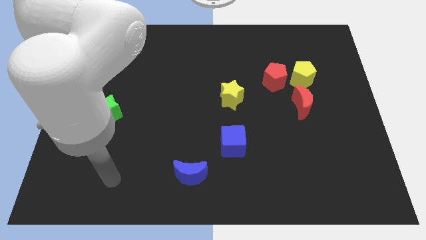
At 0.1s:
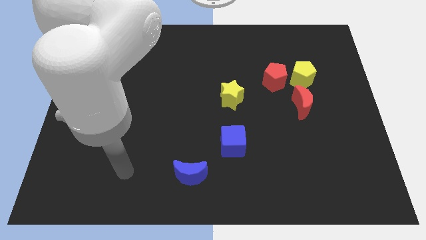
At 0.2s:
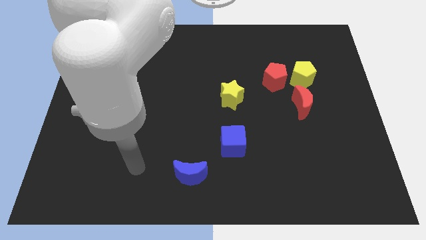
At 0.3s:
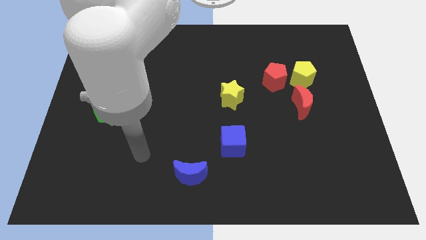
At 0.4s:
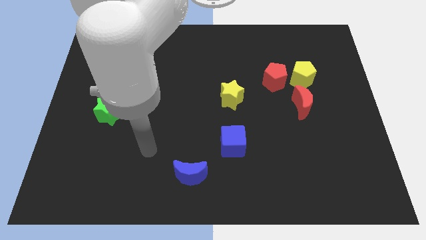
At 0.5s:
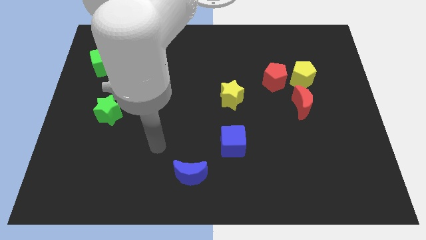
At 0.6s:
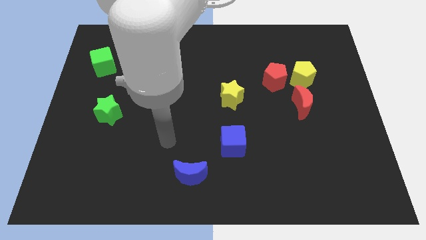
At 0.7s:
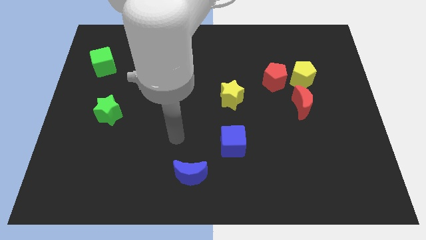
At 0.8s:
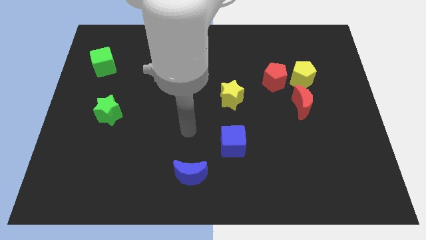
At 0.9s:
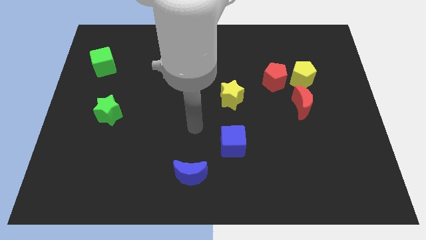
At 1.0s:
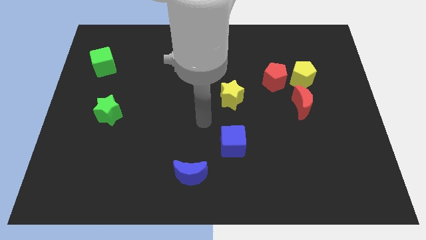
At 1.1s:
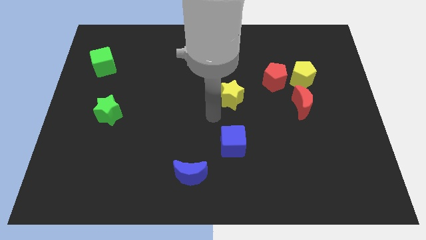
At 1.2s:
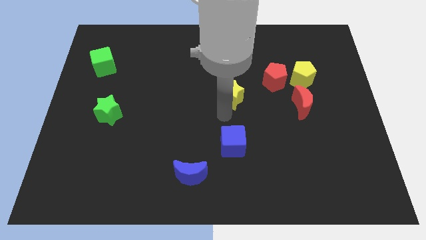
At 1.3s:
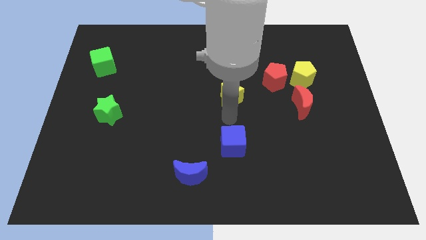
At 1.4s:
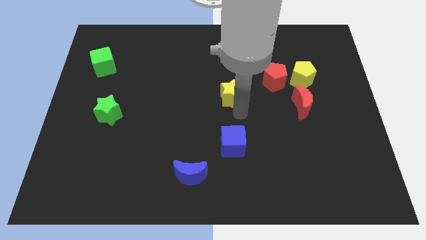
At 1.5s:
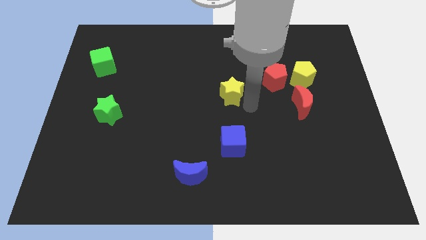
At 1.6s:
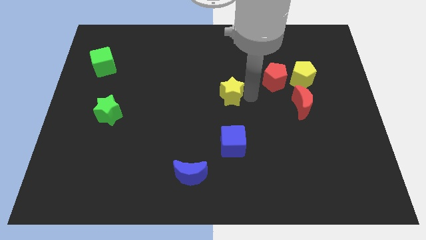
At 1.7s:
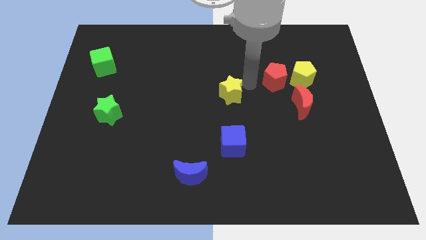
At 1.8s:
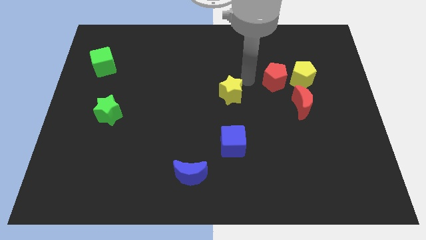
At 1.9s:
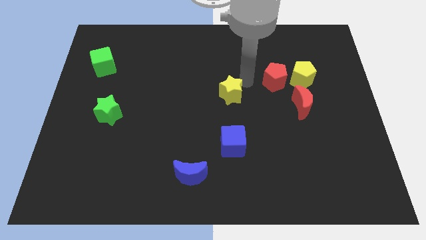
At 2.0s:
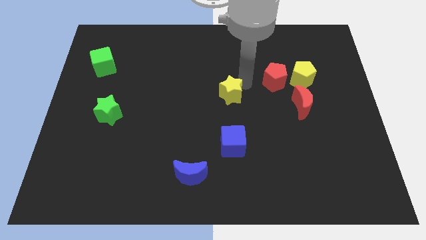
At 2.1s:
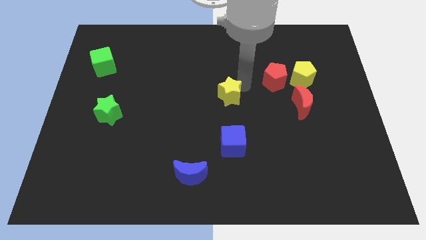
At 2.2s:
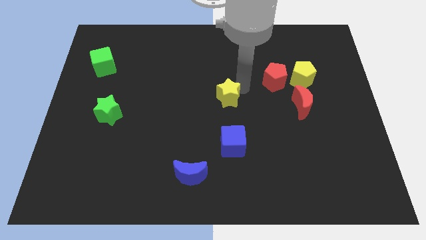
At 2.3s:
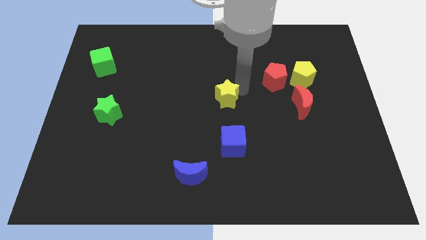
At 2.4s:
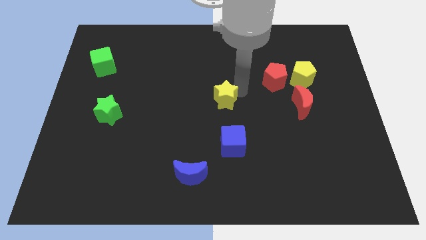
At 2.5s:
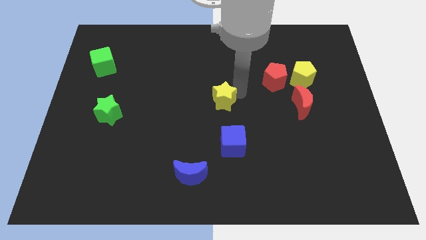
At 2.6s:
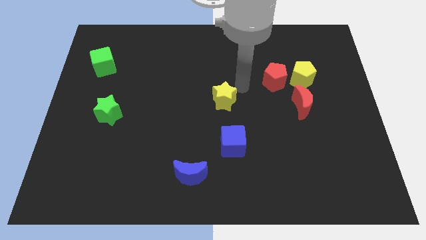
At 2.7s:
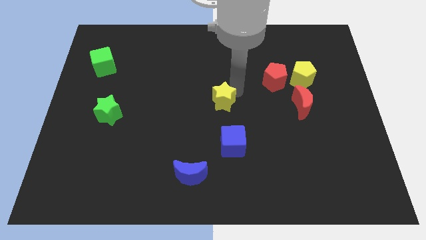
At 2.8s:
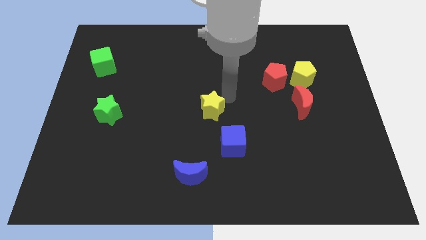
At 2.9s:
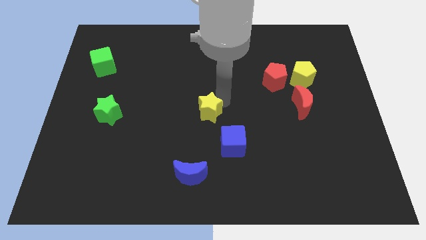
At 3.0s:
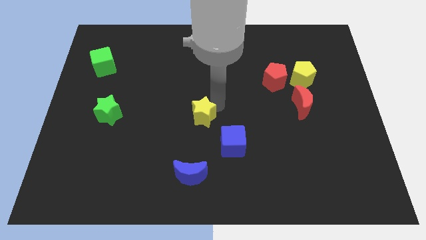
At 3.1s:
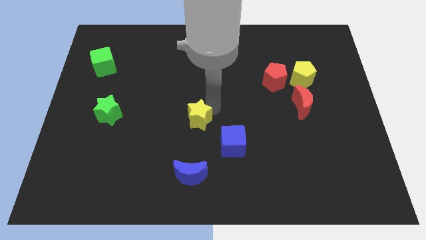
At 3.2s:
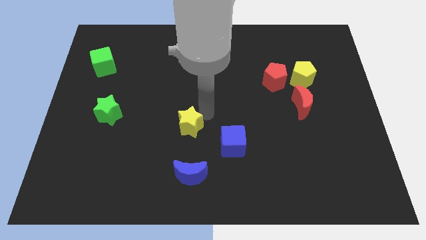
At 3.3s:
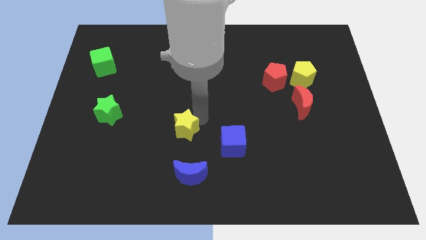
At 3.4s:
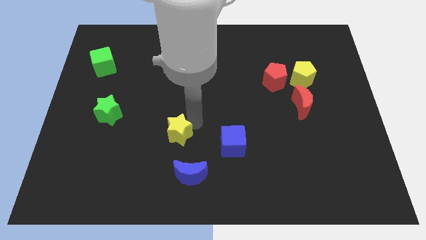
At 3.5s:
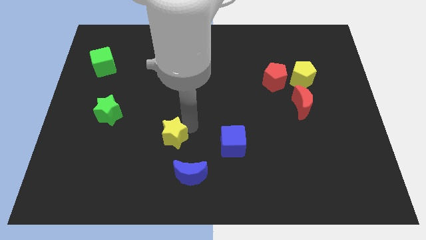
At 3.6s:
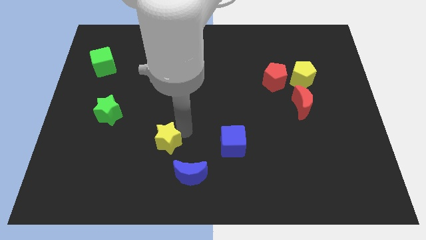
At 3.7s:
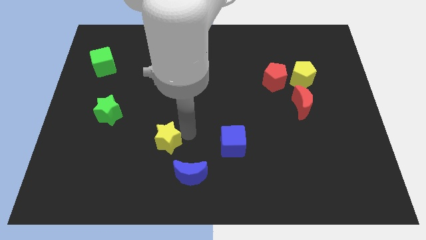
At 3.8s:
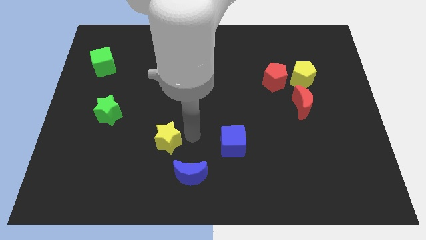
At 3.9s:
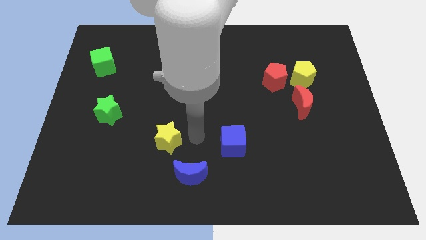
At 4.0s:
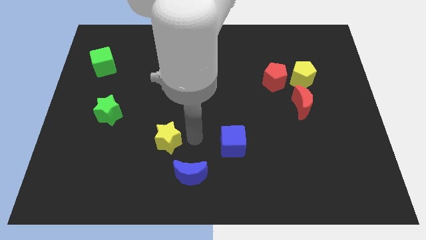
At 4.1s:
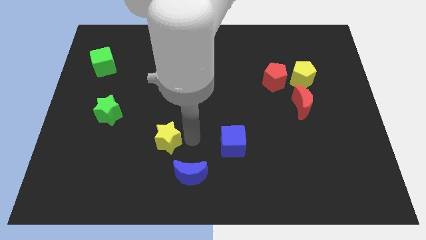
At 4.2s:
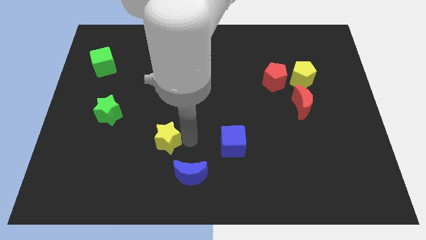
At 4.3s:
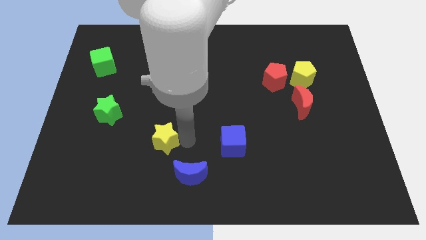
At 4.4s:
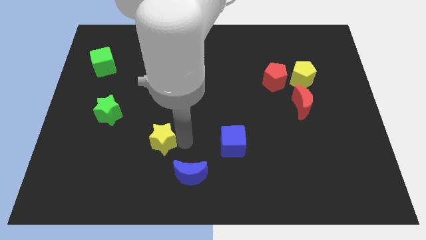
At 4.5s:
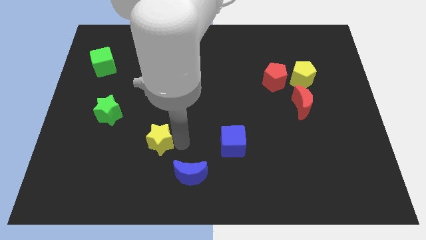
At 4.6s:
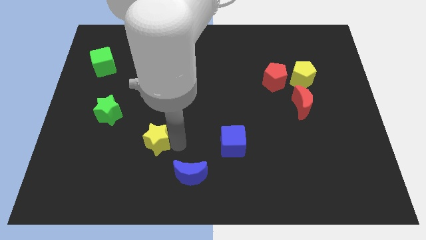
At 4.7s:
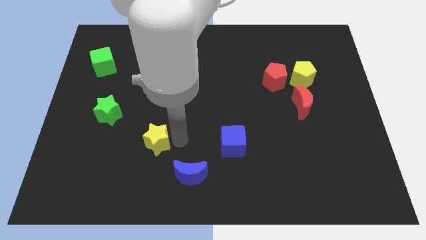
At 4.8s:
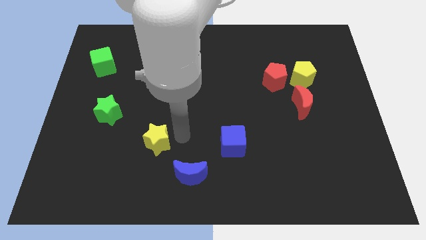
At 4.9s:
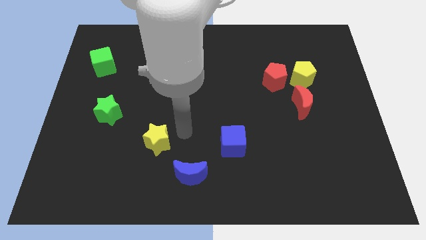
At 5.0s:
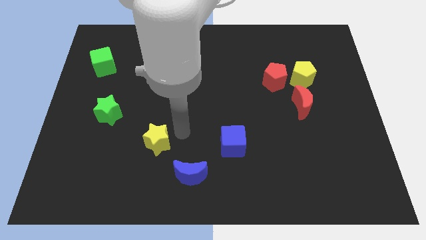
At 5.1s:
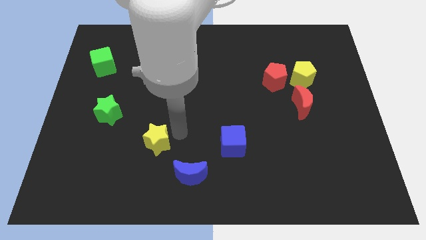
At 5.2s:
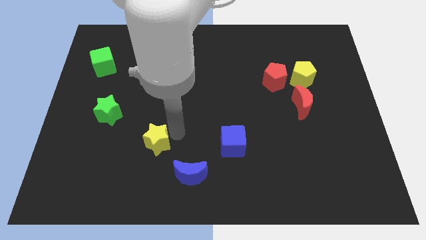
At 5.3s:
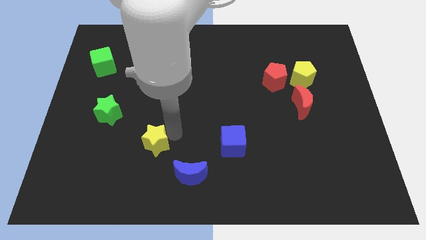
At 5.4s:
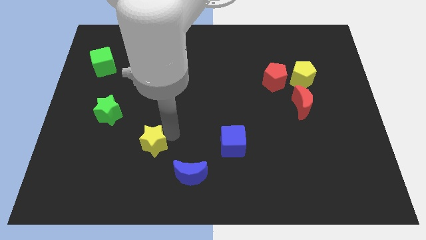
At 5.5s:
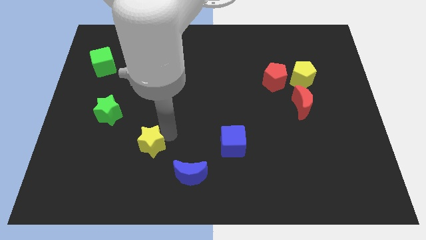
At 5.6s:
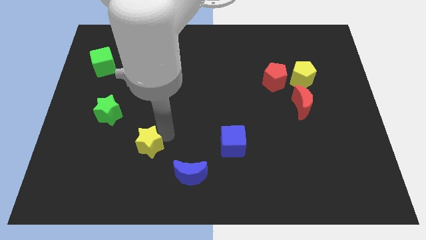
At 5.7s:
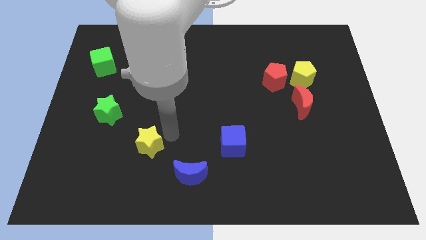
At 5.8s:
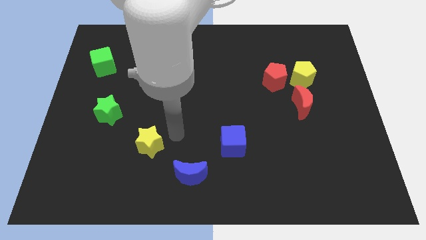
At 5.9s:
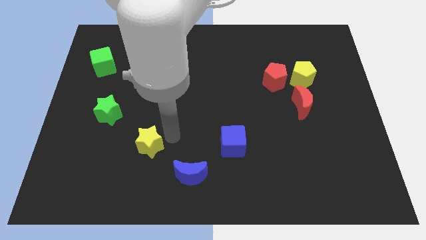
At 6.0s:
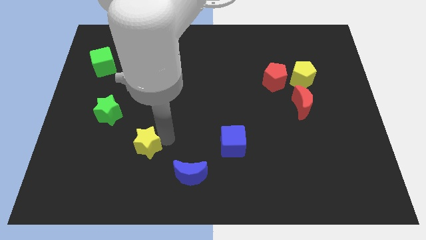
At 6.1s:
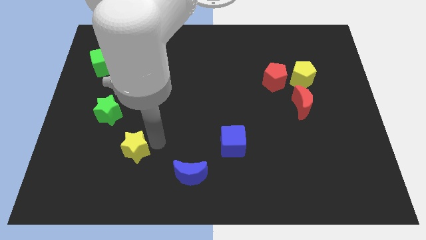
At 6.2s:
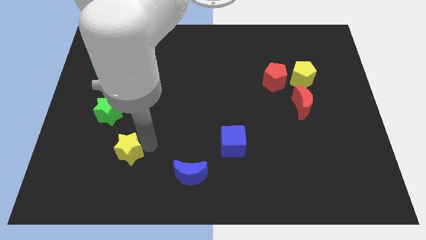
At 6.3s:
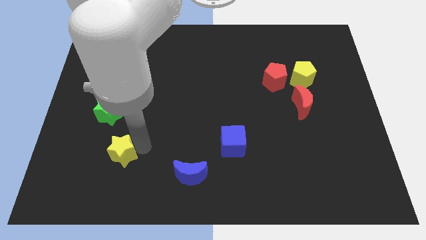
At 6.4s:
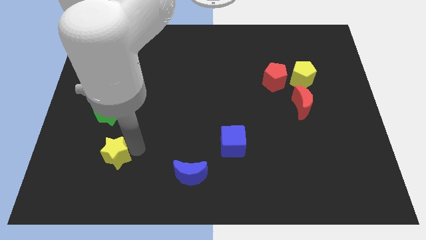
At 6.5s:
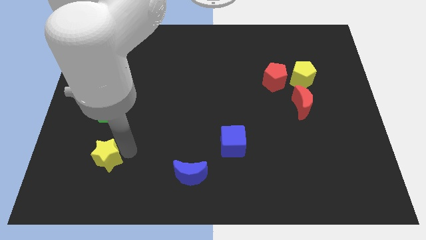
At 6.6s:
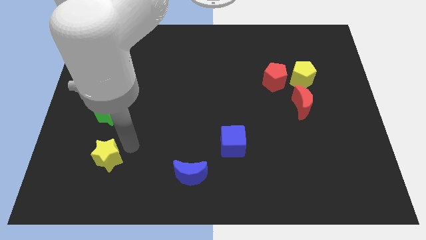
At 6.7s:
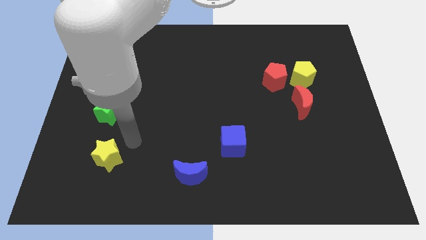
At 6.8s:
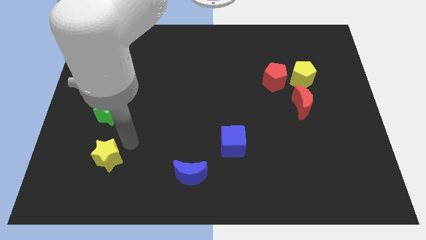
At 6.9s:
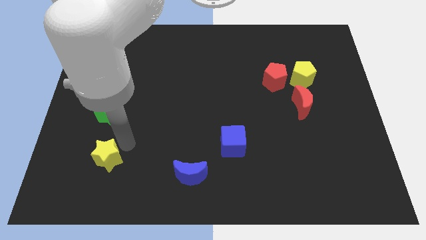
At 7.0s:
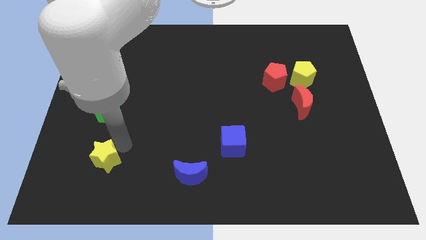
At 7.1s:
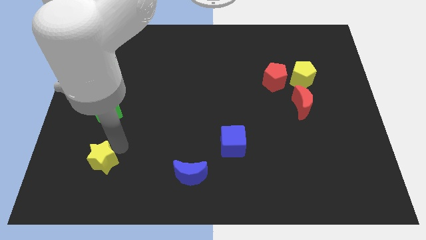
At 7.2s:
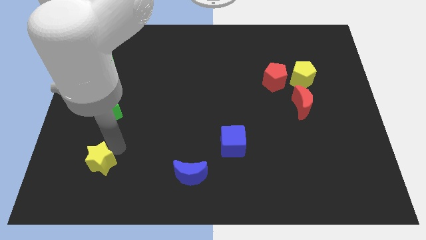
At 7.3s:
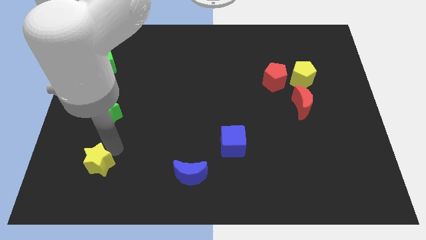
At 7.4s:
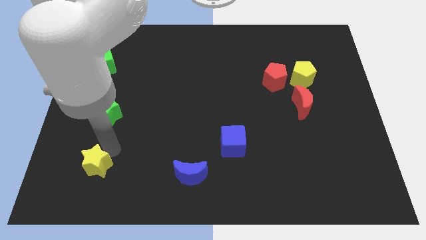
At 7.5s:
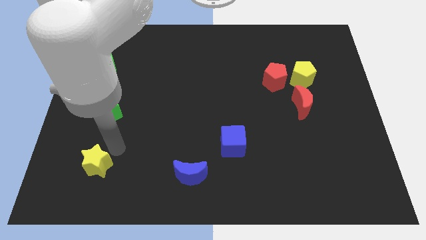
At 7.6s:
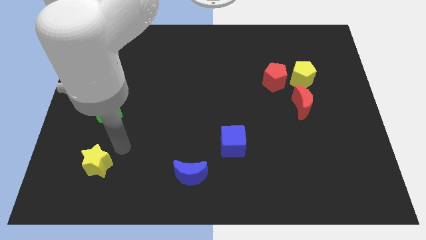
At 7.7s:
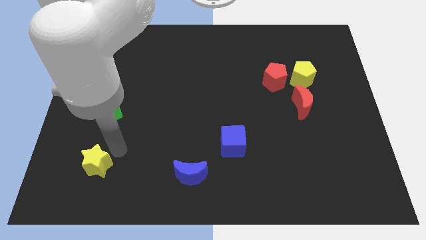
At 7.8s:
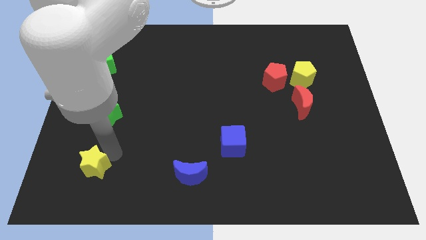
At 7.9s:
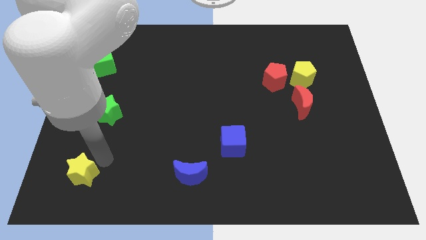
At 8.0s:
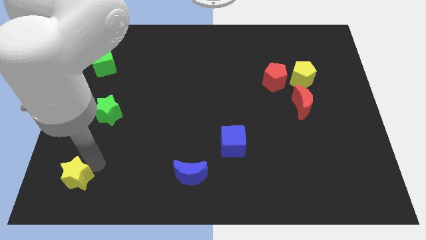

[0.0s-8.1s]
slide the yellow star to the lower left corner
